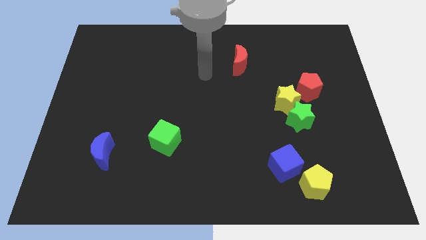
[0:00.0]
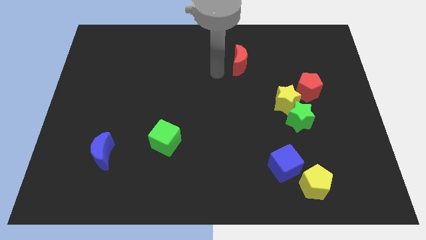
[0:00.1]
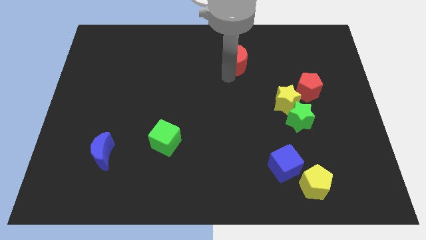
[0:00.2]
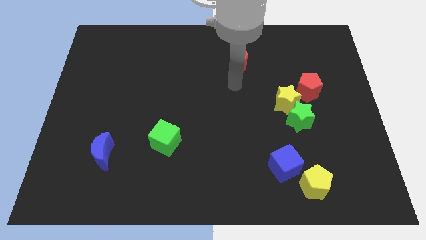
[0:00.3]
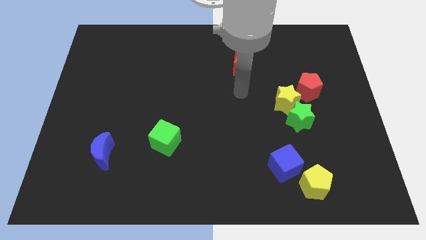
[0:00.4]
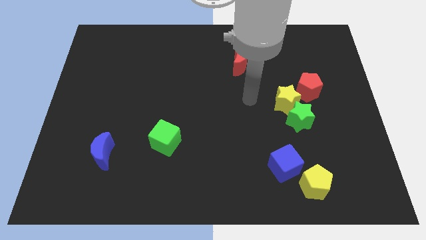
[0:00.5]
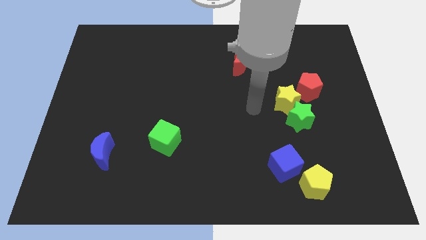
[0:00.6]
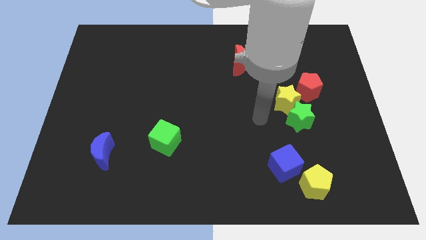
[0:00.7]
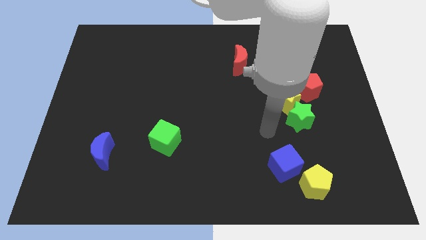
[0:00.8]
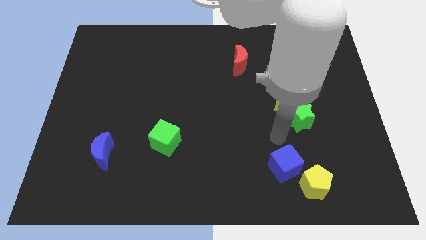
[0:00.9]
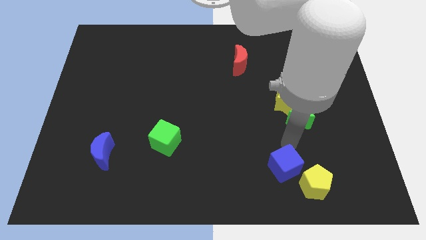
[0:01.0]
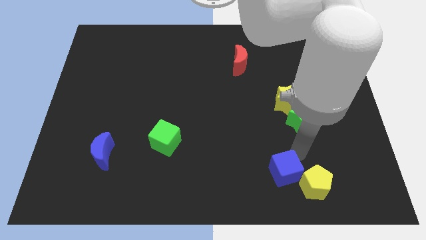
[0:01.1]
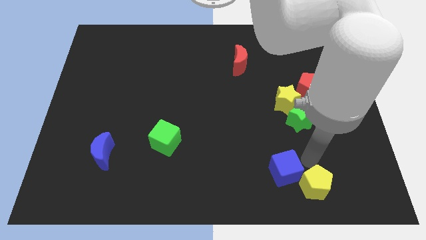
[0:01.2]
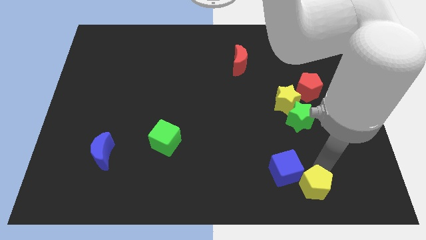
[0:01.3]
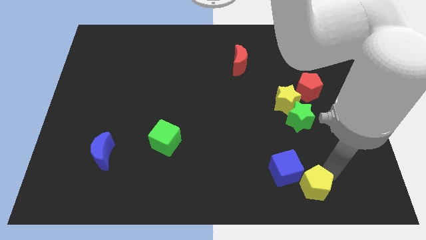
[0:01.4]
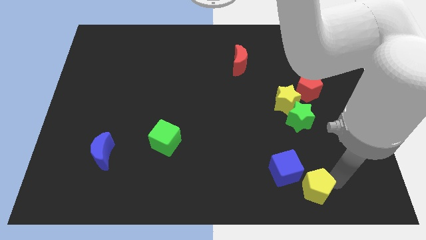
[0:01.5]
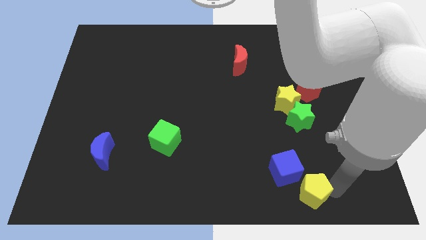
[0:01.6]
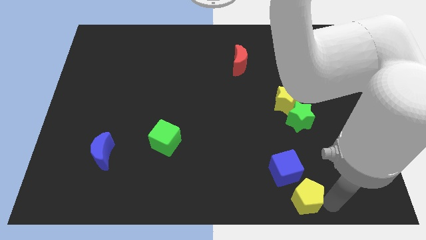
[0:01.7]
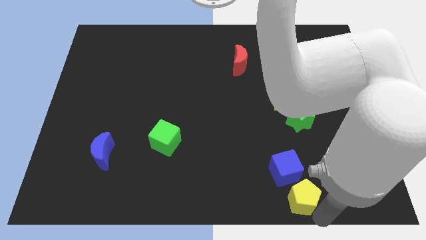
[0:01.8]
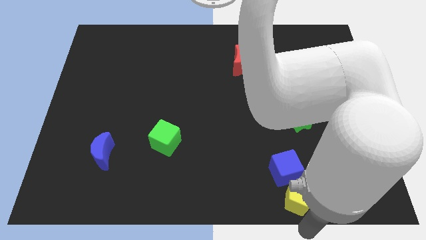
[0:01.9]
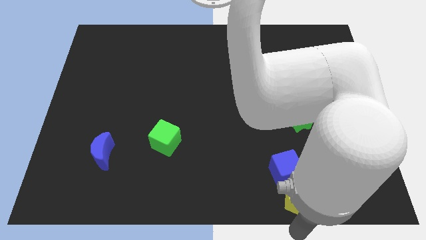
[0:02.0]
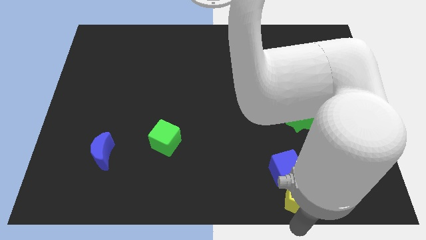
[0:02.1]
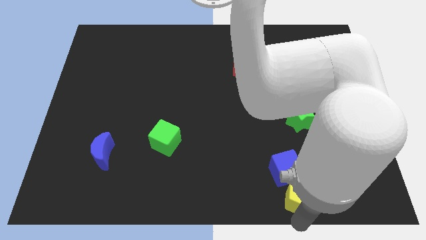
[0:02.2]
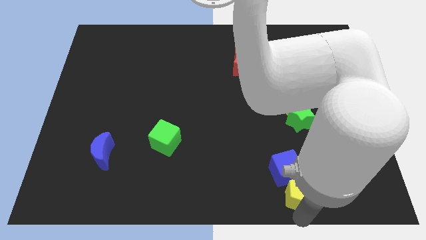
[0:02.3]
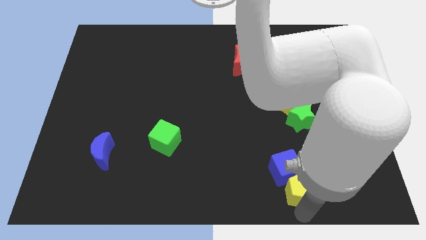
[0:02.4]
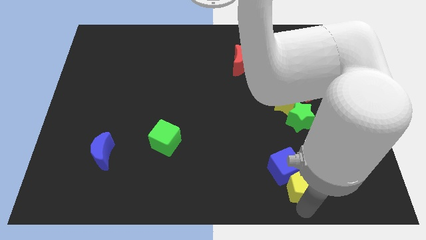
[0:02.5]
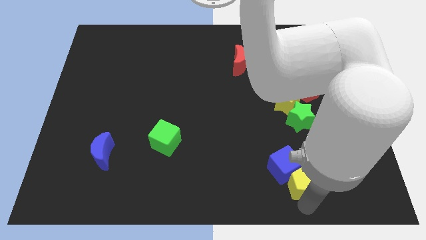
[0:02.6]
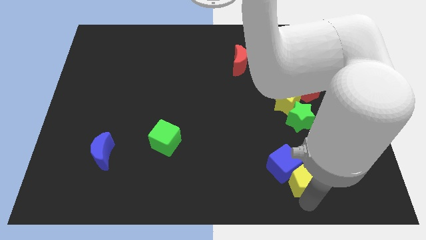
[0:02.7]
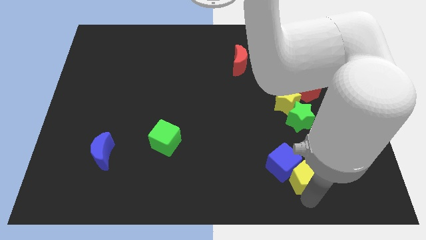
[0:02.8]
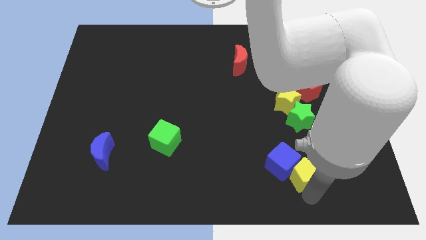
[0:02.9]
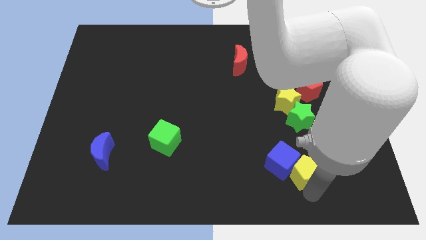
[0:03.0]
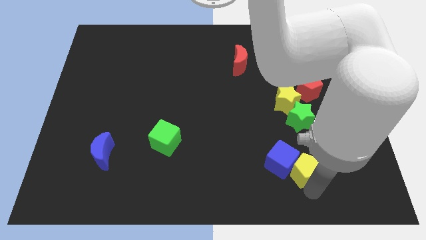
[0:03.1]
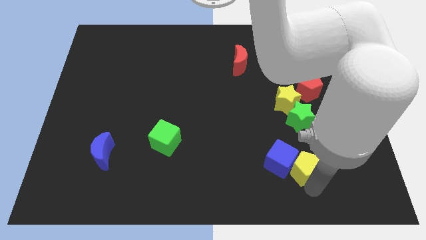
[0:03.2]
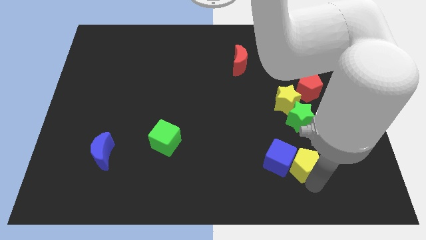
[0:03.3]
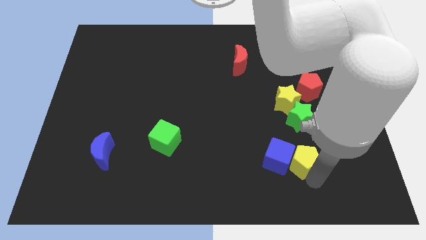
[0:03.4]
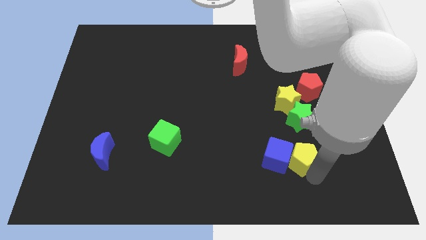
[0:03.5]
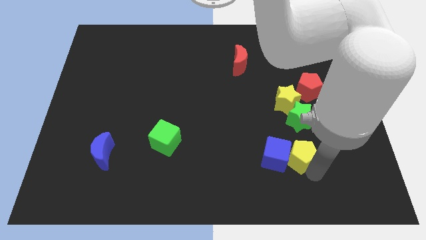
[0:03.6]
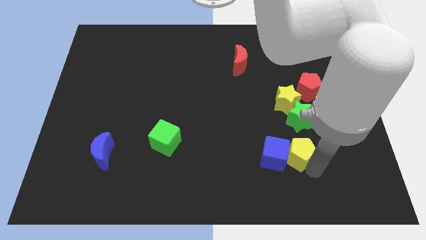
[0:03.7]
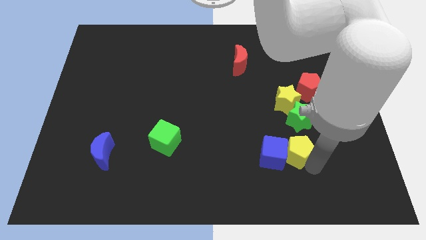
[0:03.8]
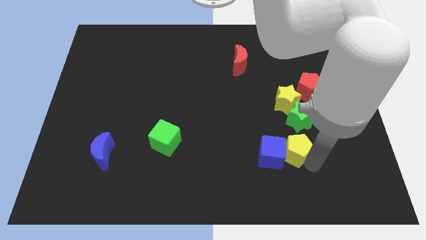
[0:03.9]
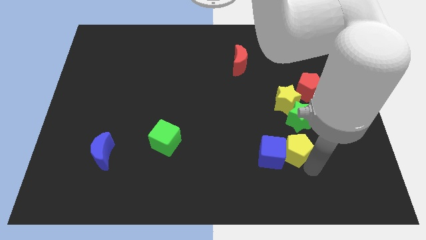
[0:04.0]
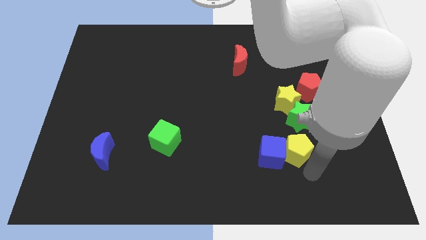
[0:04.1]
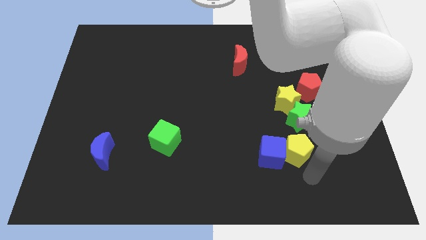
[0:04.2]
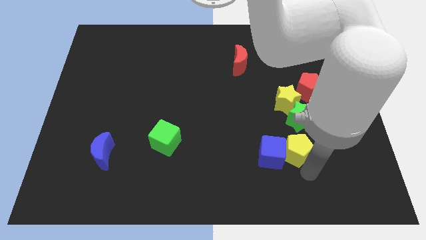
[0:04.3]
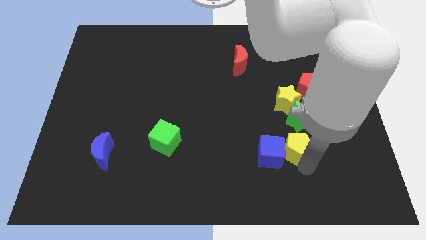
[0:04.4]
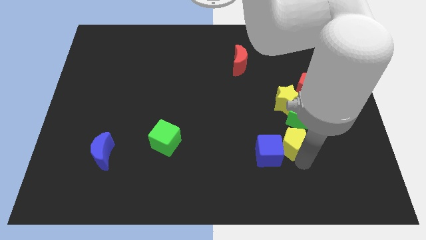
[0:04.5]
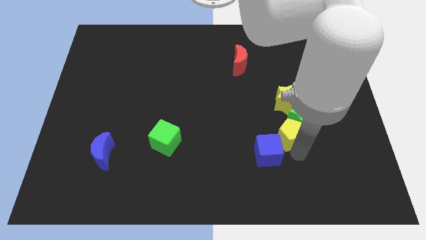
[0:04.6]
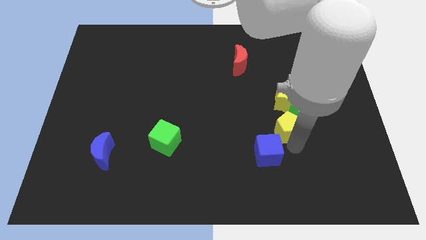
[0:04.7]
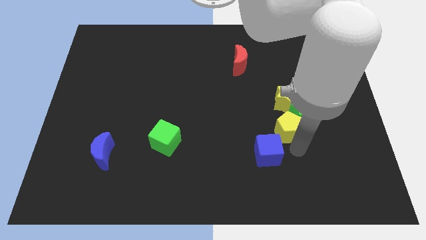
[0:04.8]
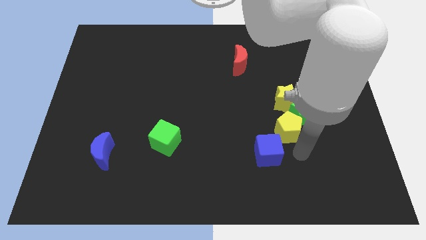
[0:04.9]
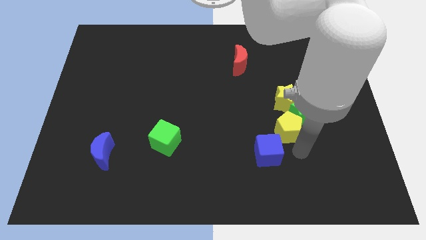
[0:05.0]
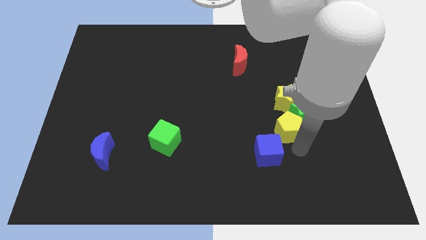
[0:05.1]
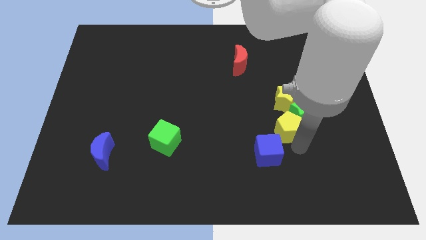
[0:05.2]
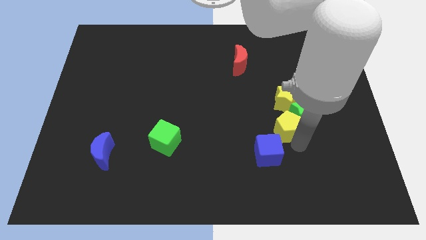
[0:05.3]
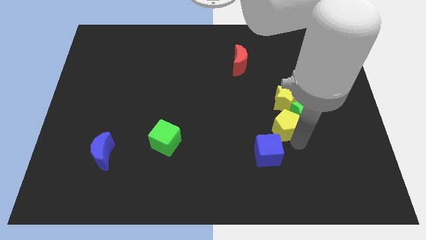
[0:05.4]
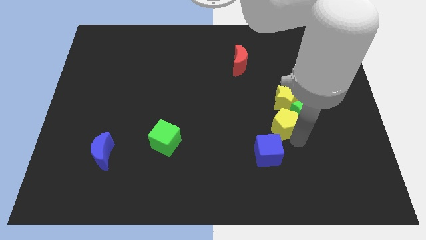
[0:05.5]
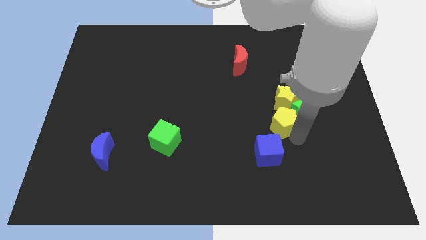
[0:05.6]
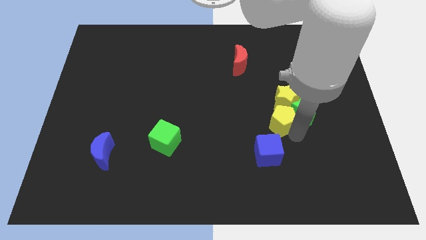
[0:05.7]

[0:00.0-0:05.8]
push the yellow pentagon to the bottom left side of the red pentagon

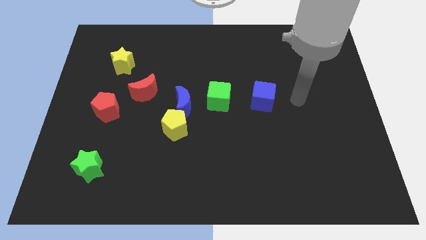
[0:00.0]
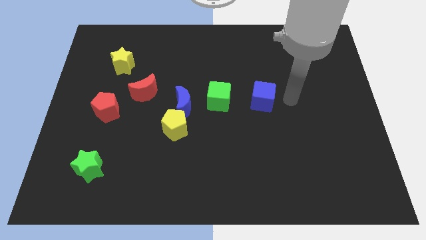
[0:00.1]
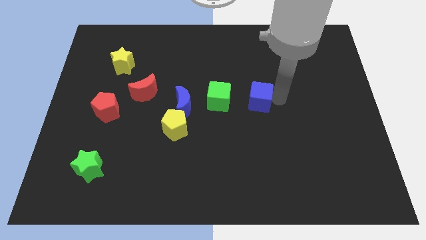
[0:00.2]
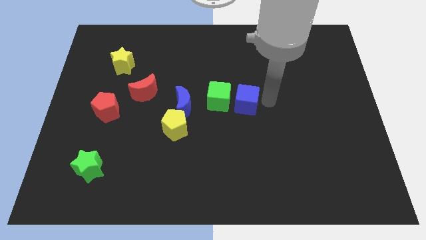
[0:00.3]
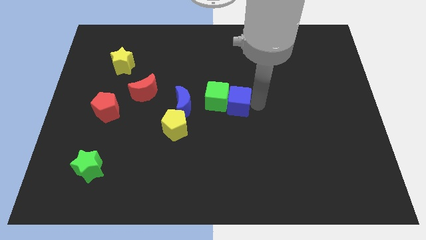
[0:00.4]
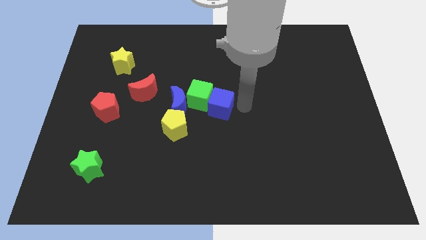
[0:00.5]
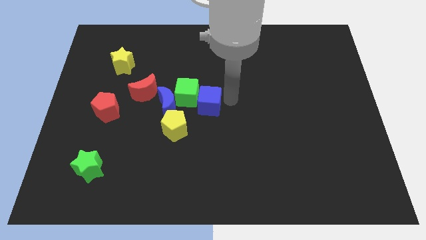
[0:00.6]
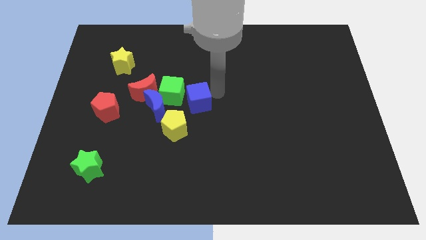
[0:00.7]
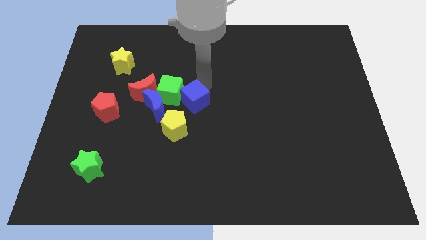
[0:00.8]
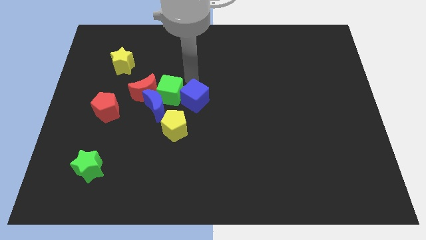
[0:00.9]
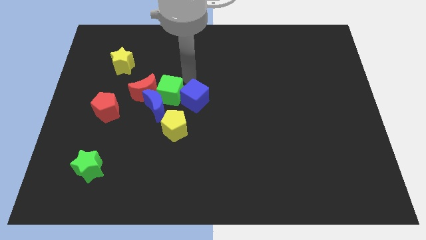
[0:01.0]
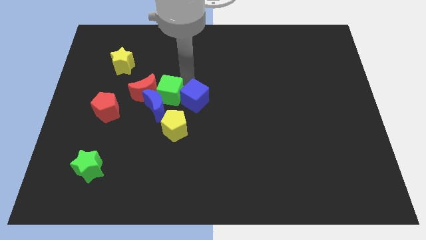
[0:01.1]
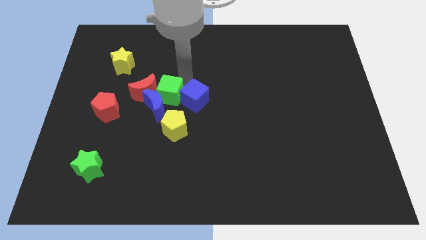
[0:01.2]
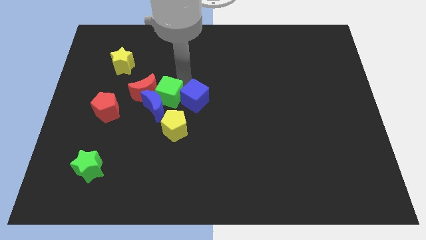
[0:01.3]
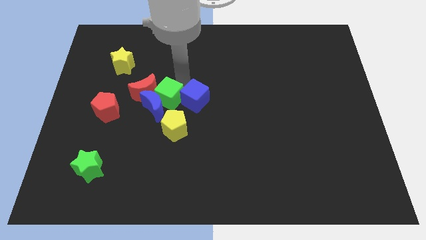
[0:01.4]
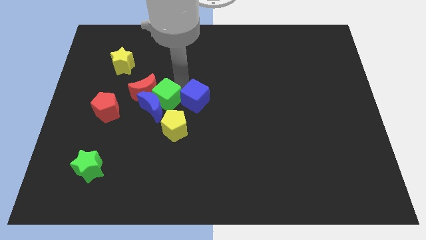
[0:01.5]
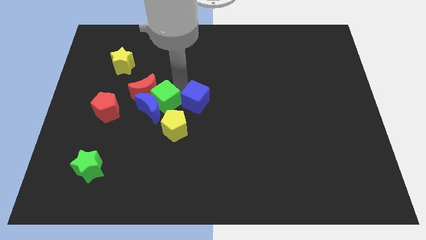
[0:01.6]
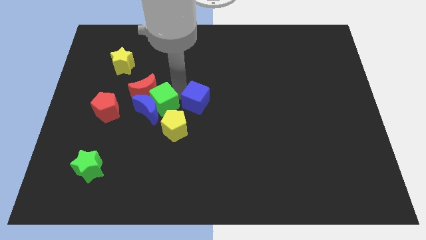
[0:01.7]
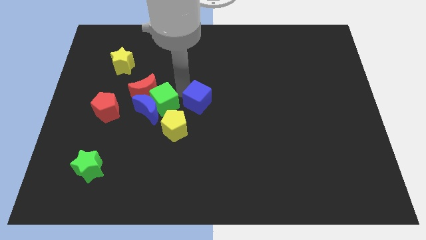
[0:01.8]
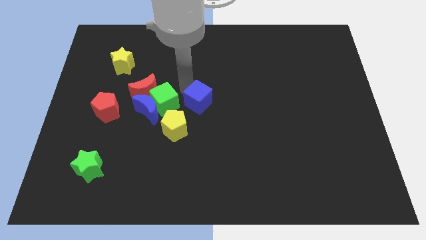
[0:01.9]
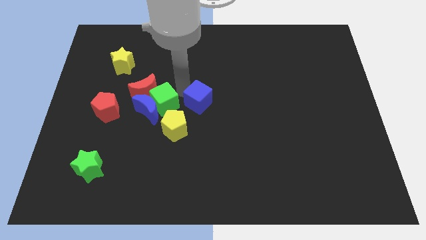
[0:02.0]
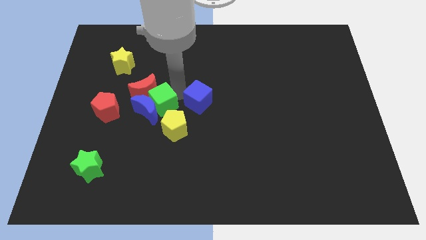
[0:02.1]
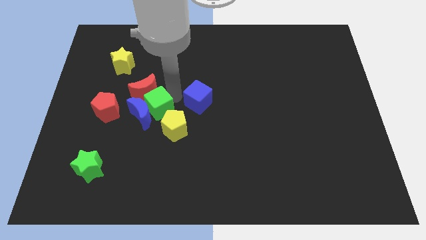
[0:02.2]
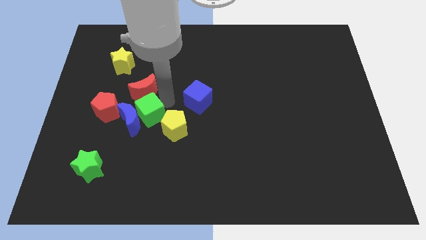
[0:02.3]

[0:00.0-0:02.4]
slide the green cube to the left side of the yellow pentagon
